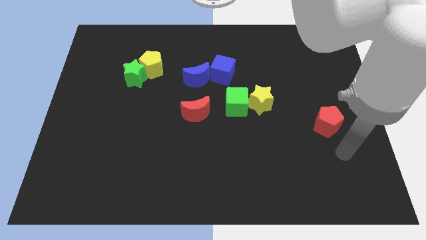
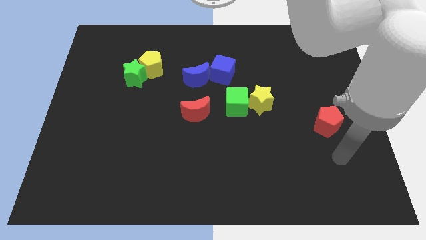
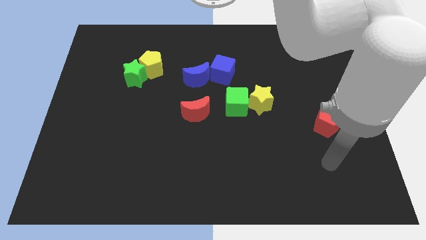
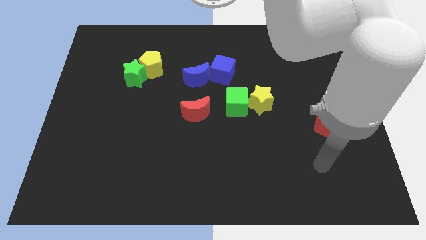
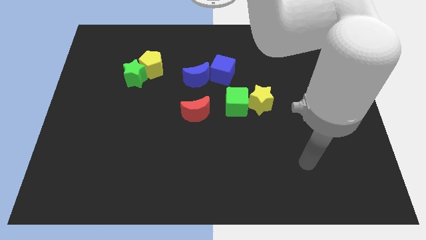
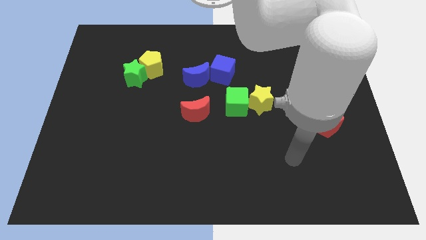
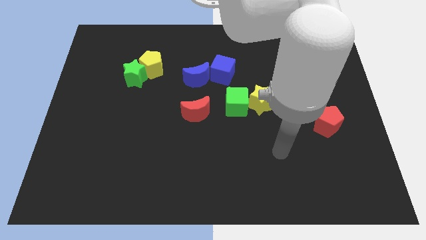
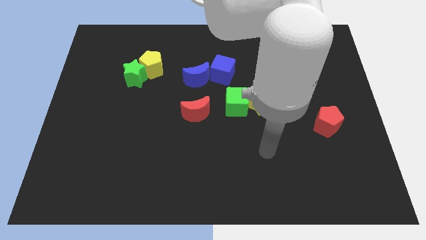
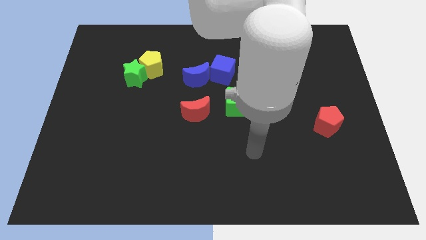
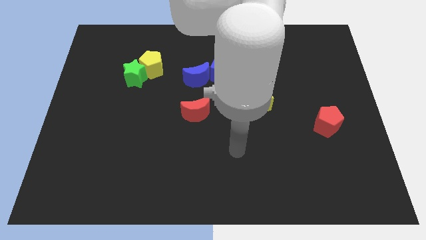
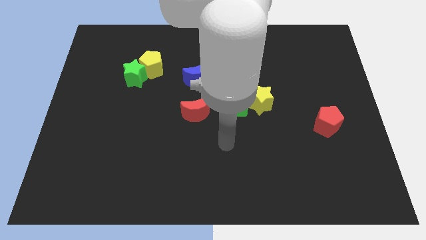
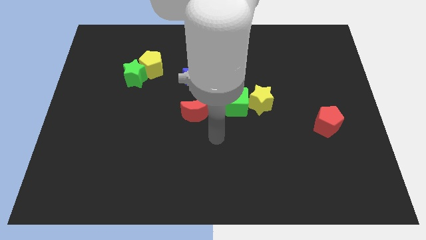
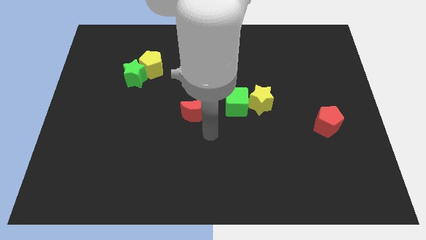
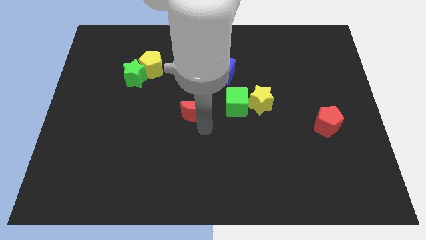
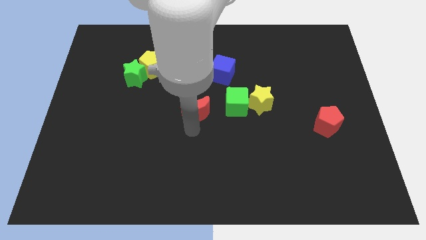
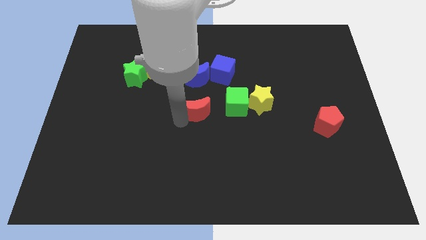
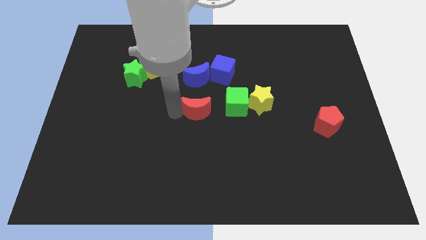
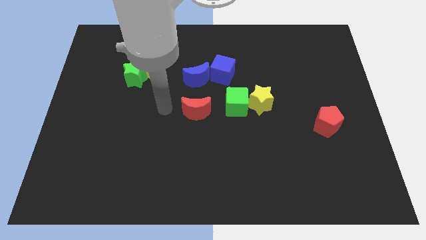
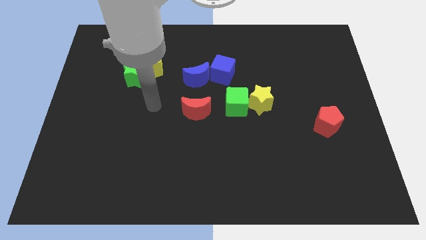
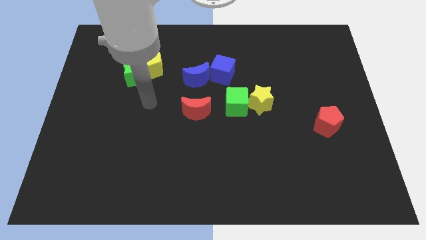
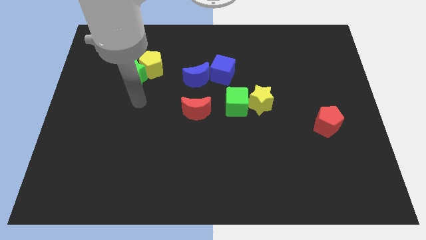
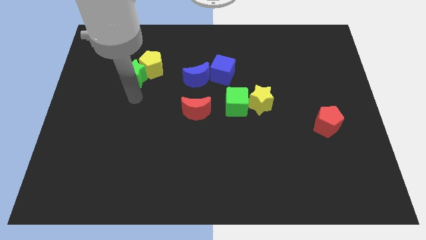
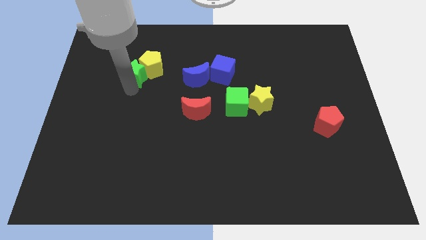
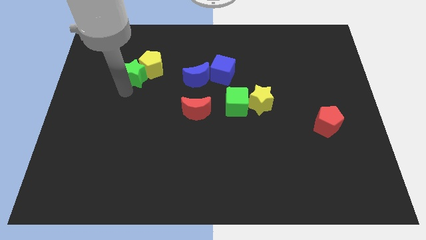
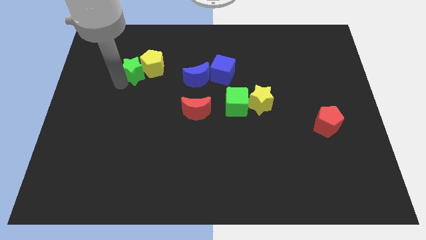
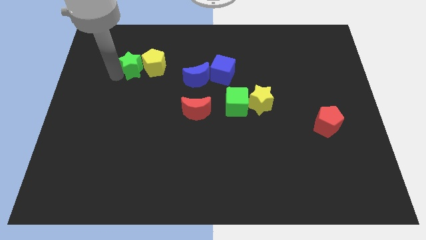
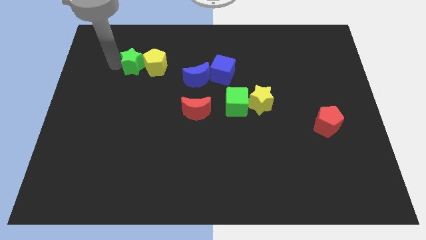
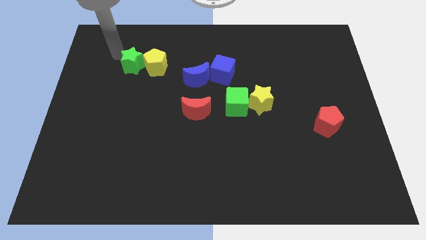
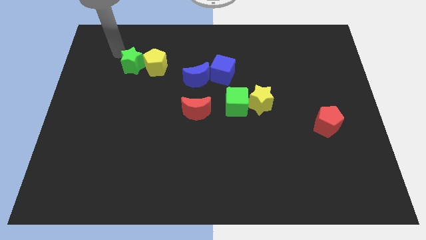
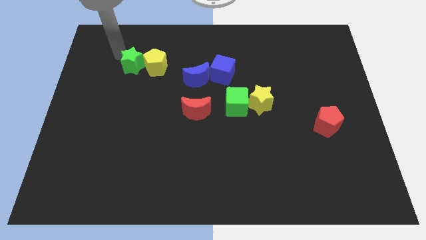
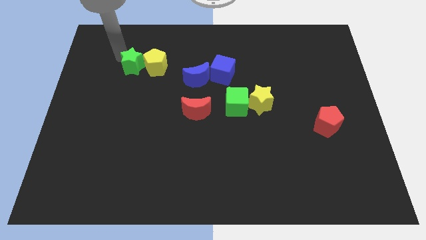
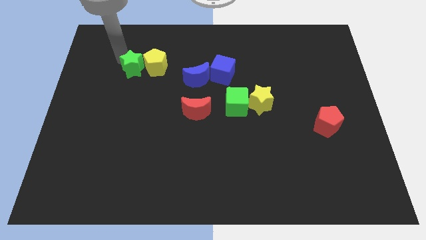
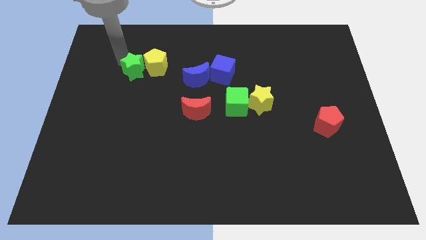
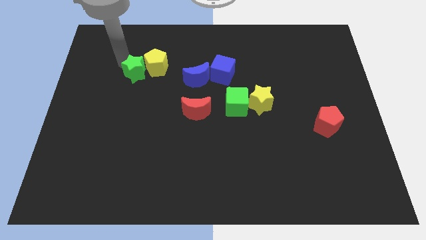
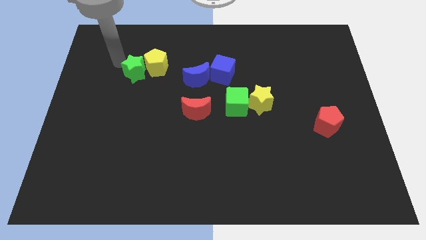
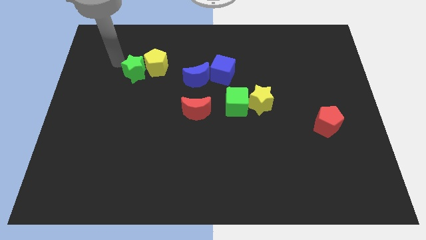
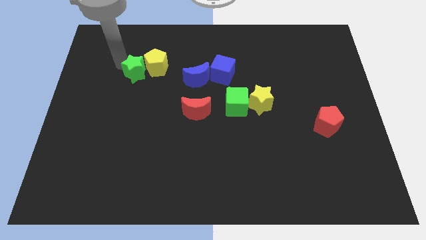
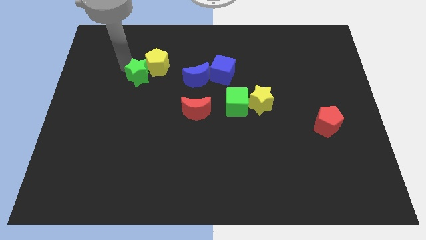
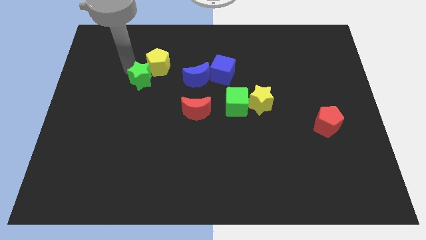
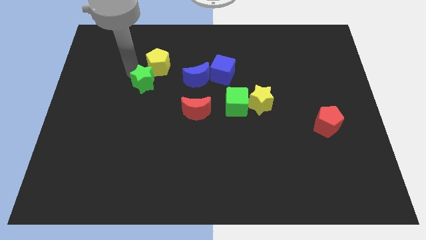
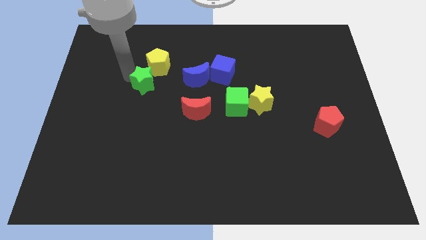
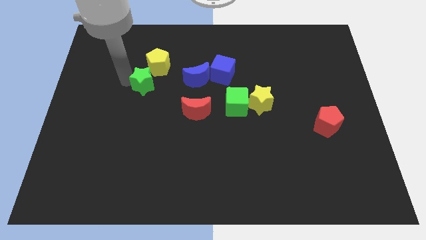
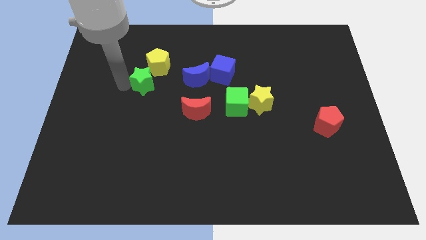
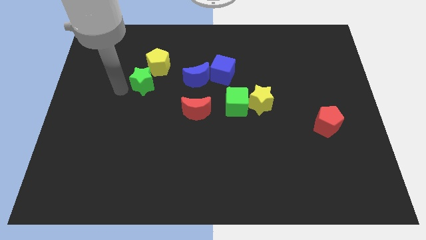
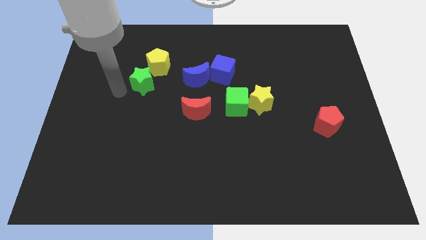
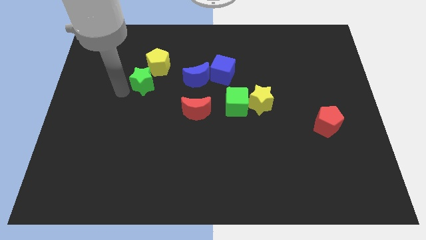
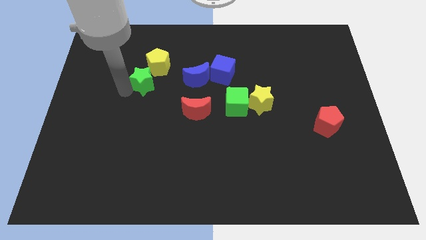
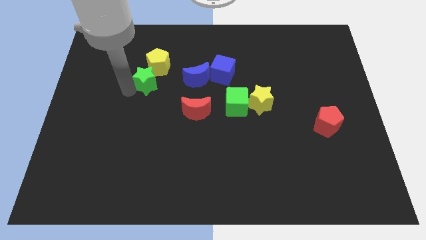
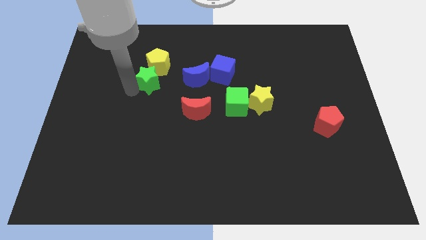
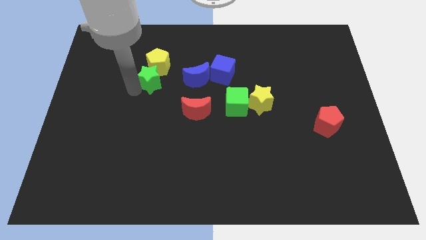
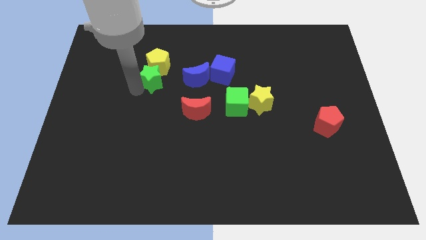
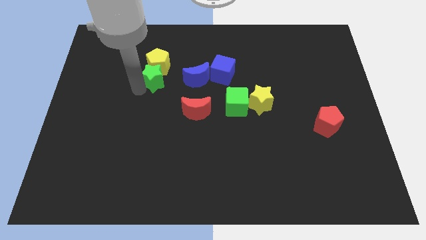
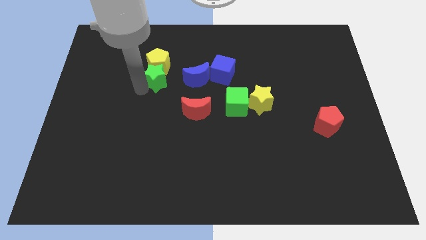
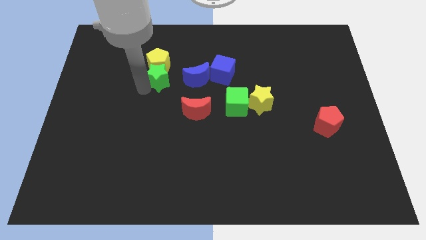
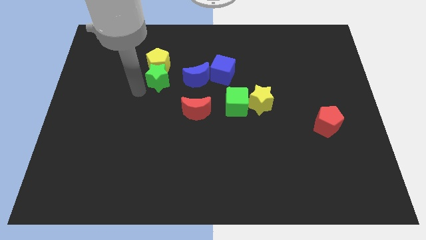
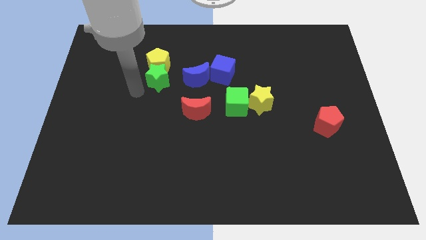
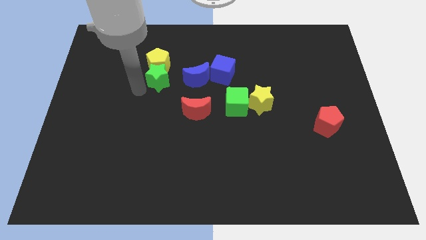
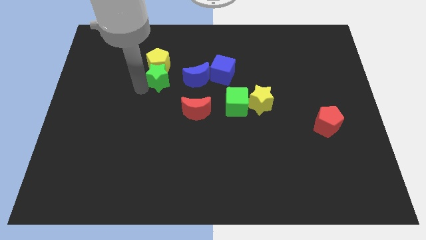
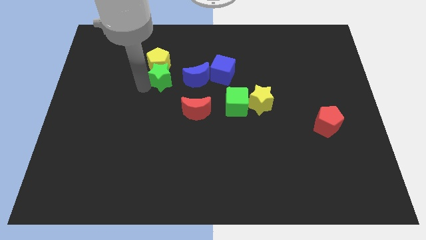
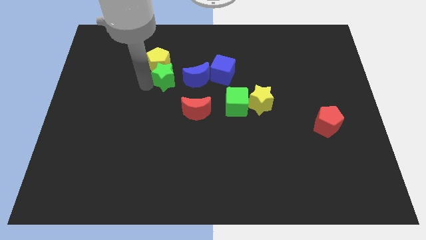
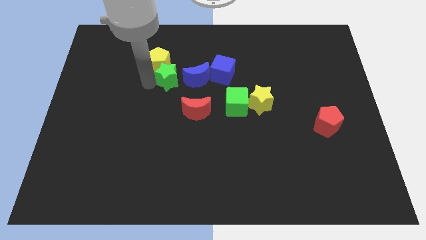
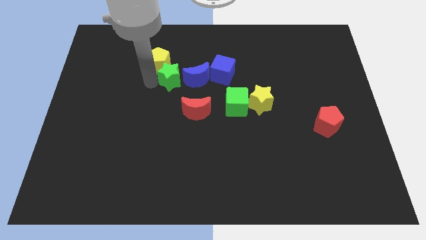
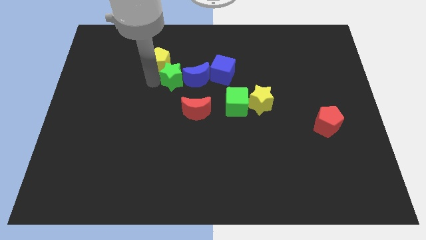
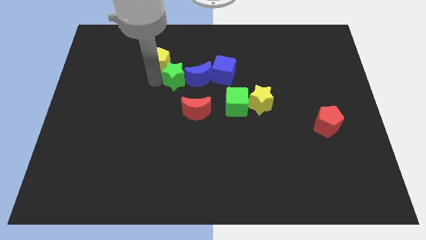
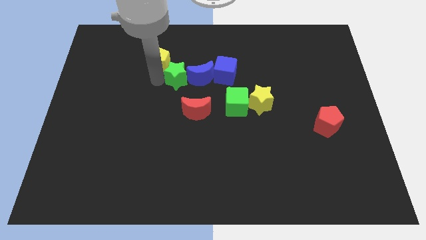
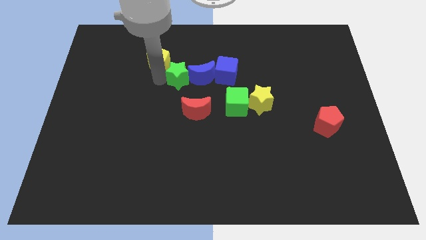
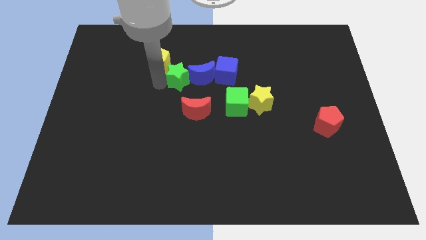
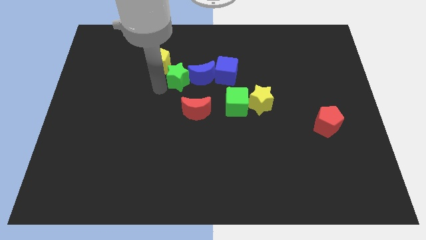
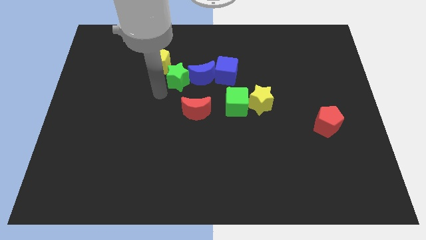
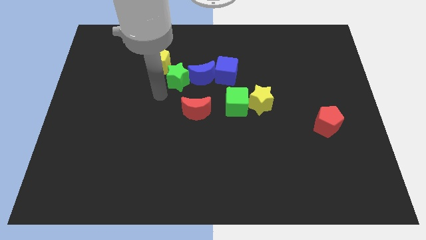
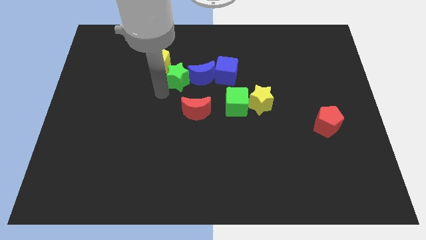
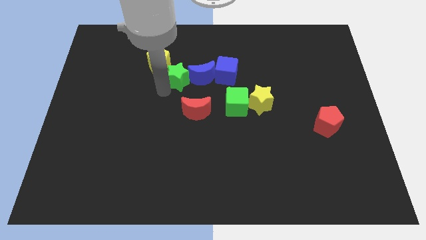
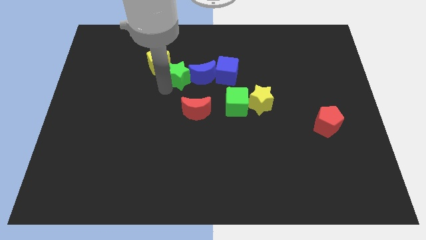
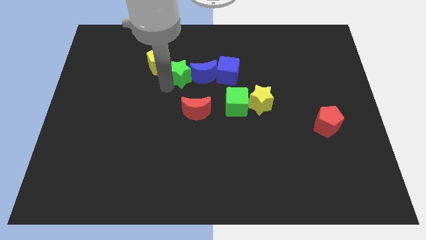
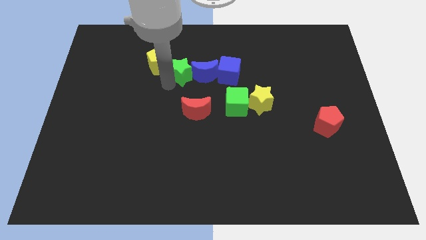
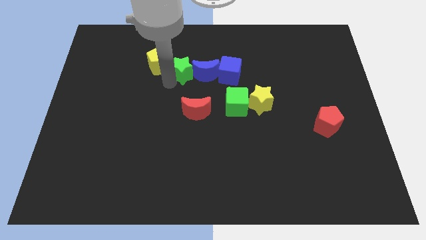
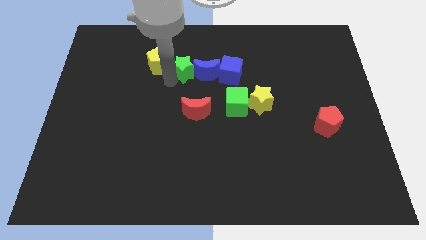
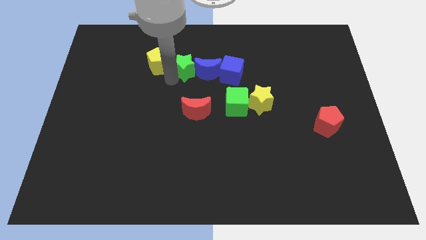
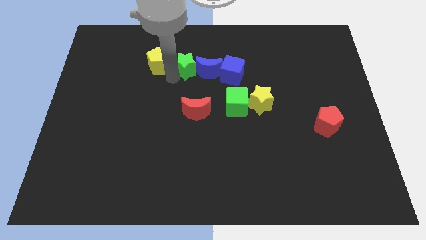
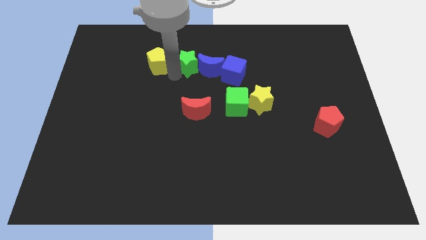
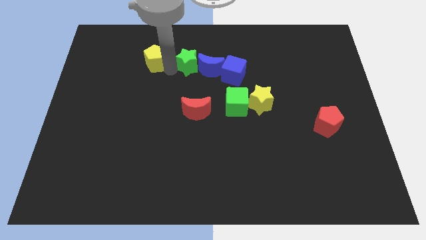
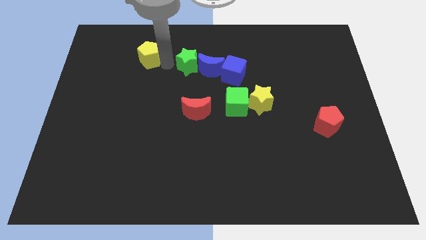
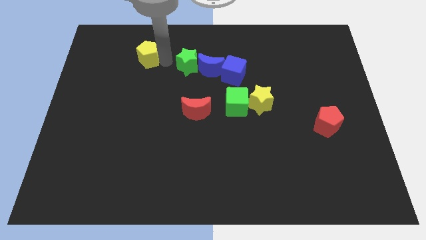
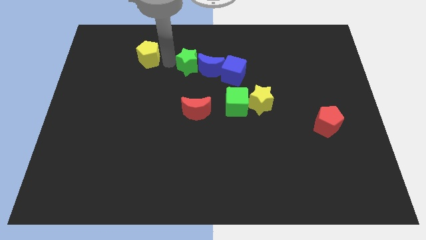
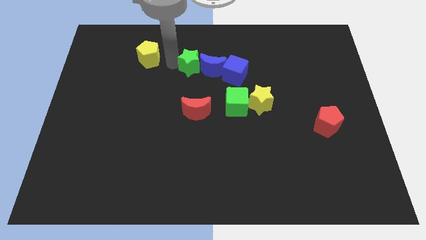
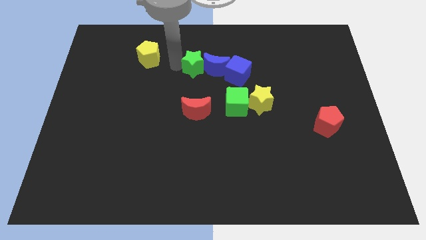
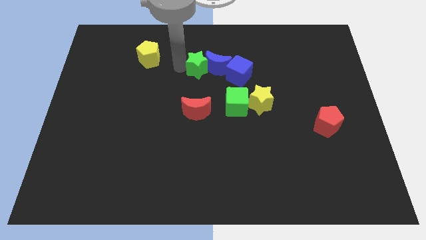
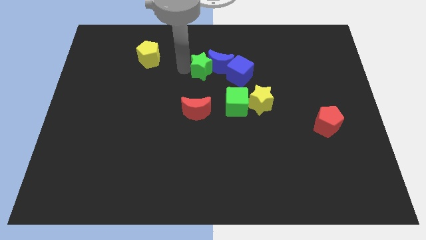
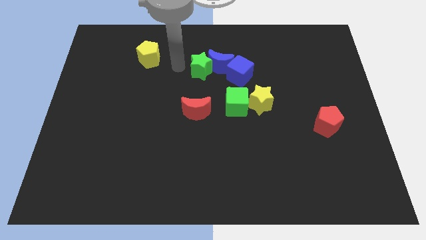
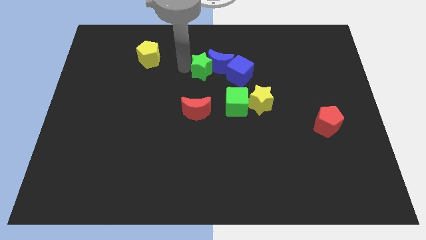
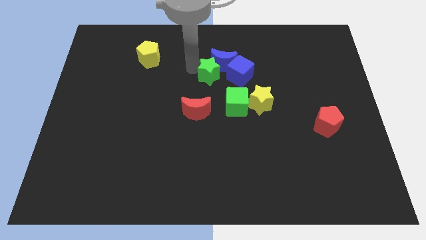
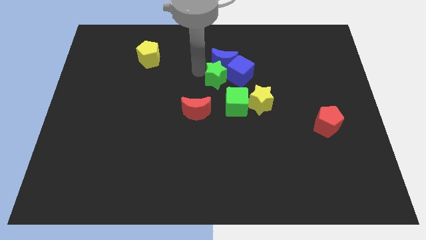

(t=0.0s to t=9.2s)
put the green star next to the blue cube
